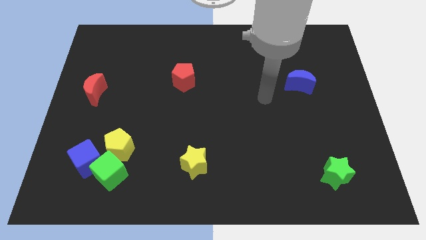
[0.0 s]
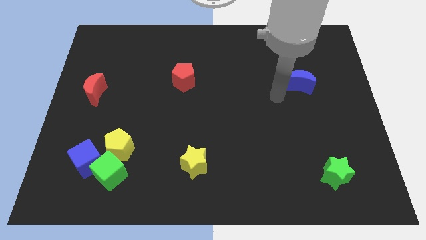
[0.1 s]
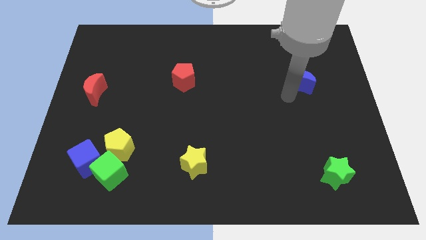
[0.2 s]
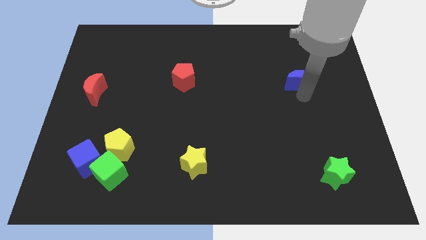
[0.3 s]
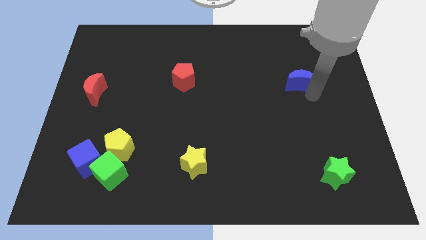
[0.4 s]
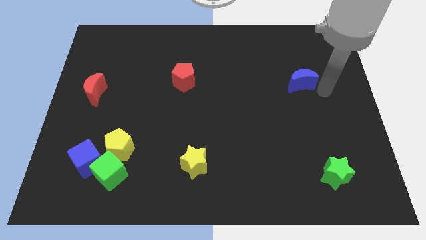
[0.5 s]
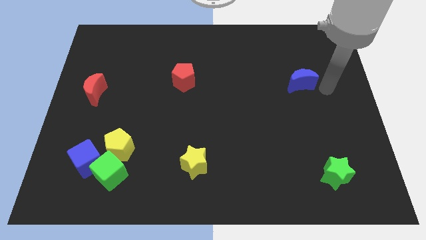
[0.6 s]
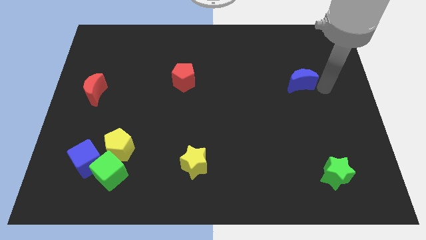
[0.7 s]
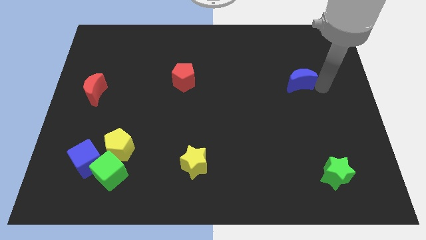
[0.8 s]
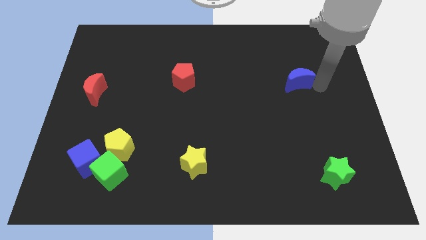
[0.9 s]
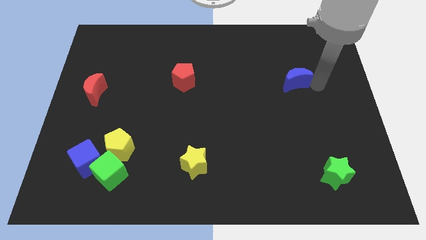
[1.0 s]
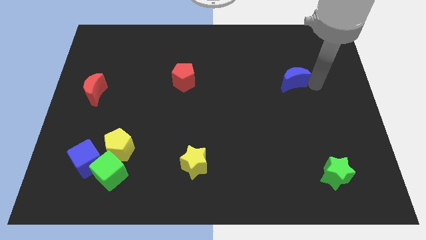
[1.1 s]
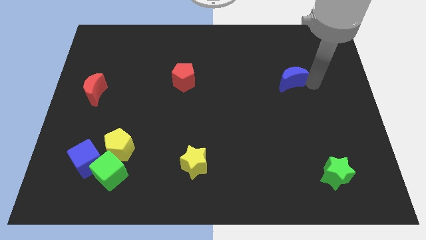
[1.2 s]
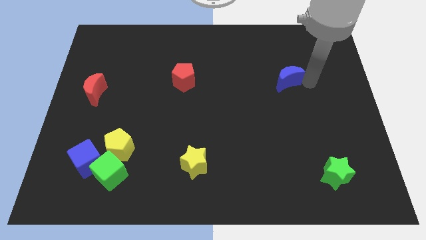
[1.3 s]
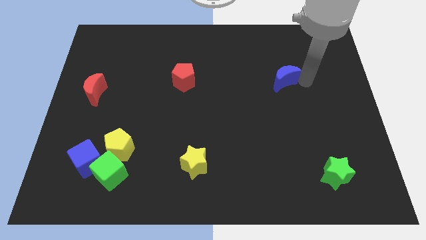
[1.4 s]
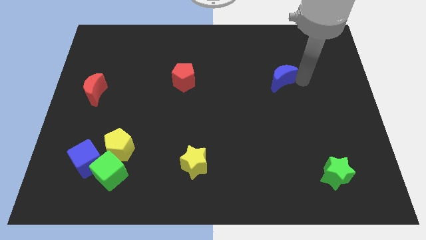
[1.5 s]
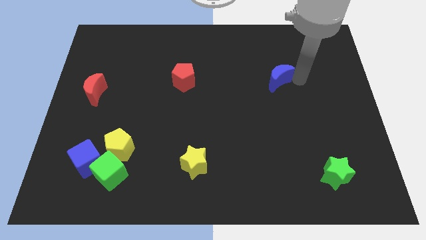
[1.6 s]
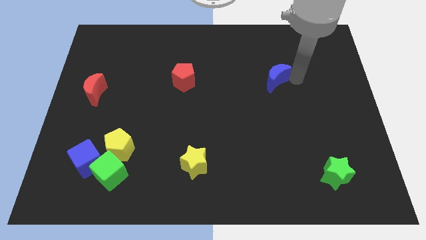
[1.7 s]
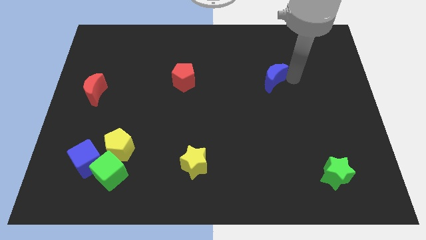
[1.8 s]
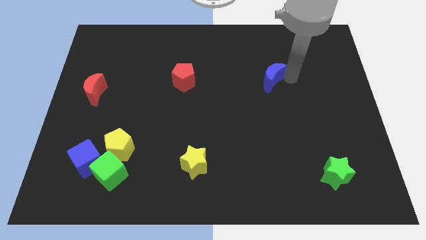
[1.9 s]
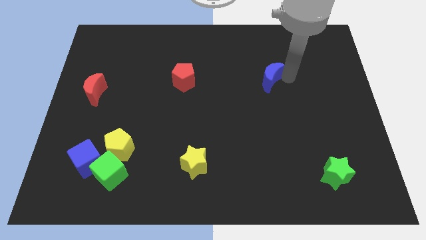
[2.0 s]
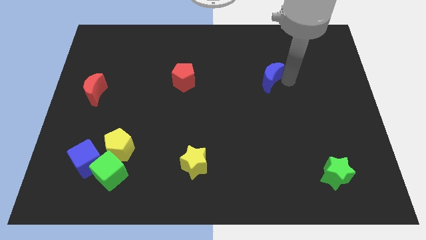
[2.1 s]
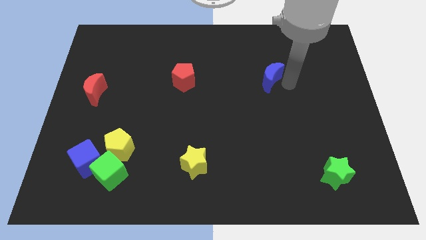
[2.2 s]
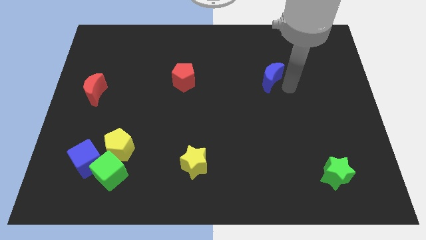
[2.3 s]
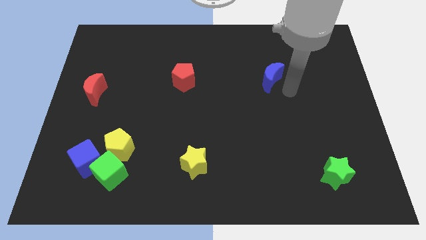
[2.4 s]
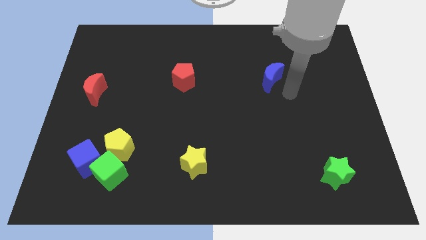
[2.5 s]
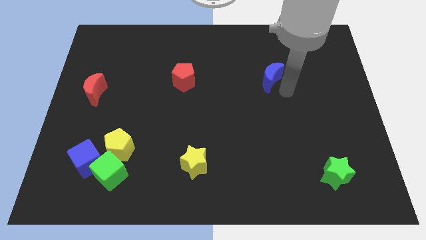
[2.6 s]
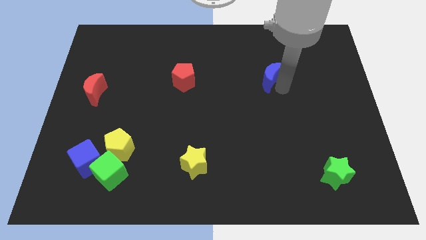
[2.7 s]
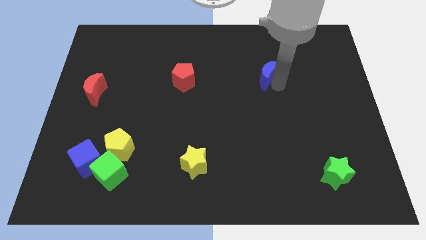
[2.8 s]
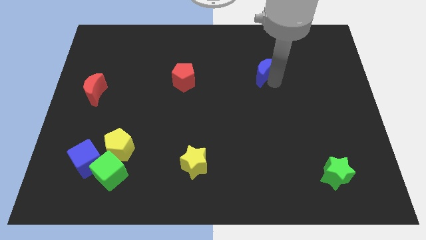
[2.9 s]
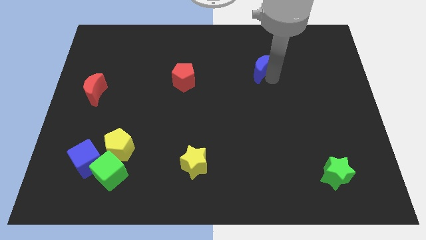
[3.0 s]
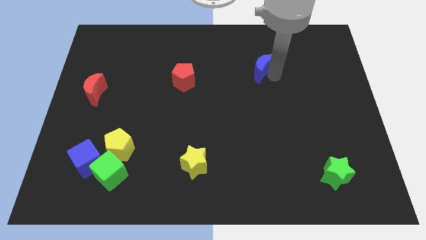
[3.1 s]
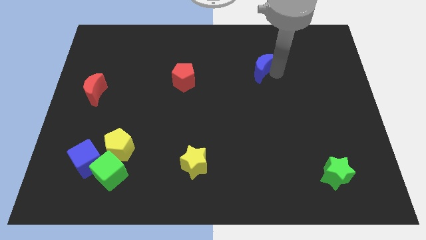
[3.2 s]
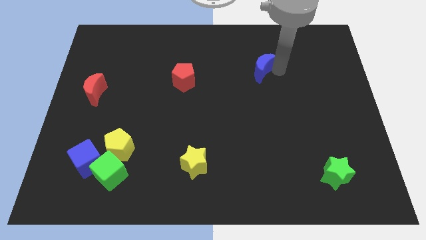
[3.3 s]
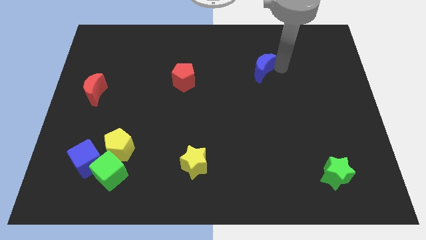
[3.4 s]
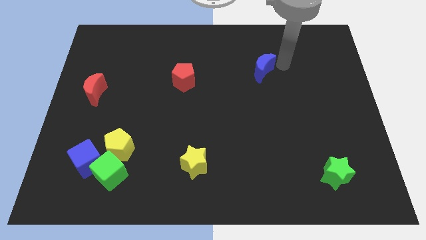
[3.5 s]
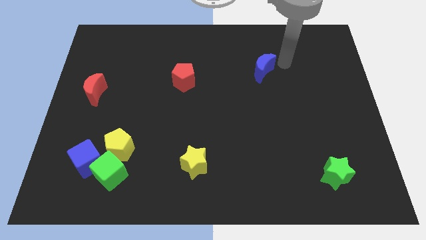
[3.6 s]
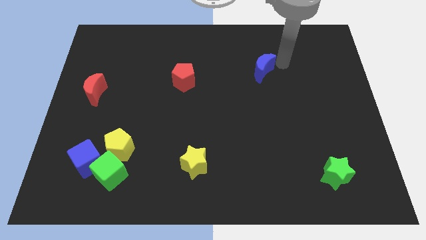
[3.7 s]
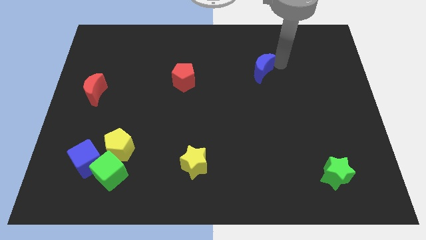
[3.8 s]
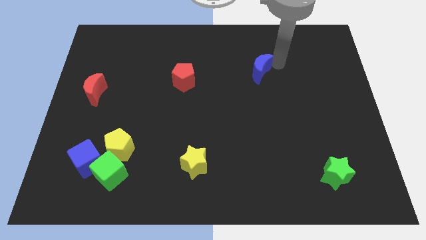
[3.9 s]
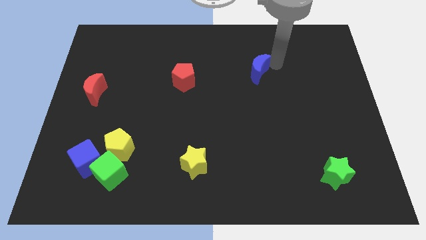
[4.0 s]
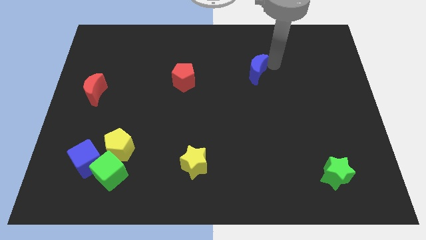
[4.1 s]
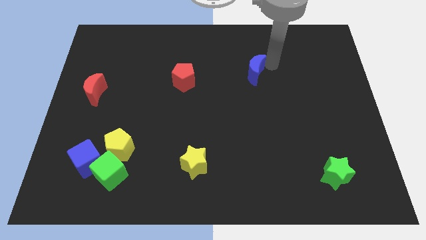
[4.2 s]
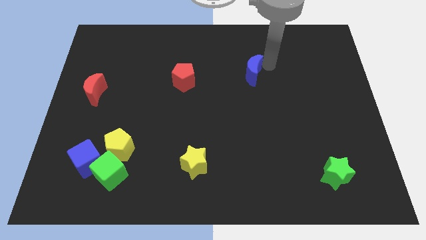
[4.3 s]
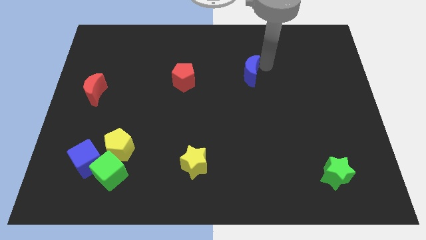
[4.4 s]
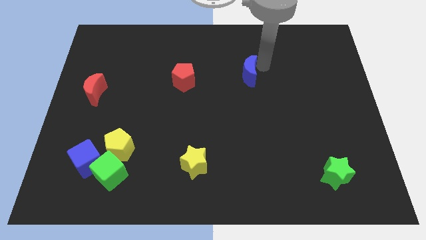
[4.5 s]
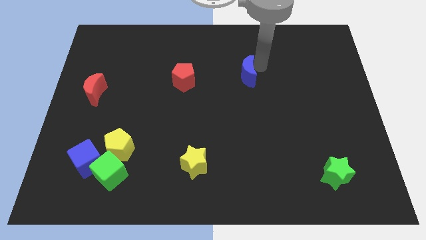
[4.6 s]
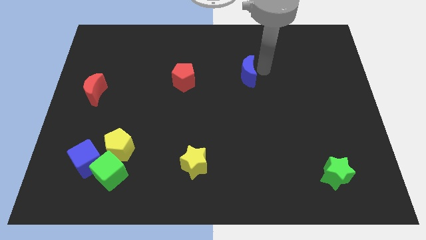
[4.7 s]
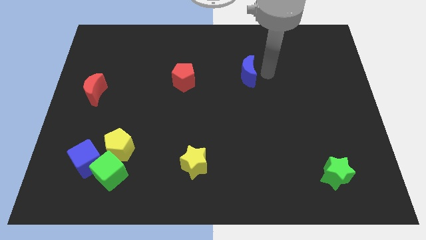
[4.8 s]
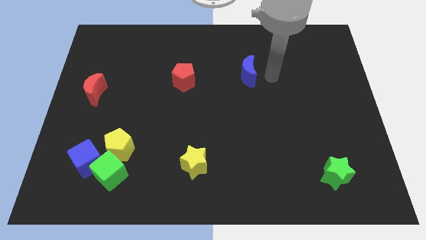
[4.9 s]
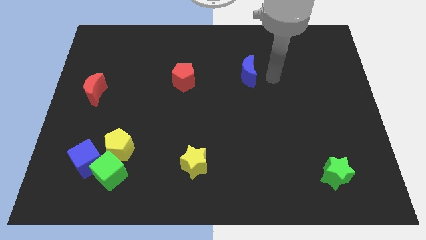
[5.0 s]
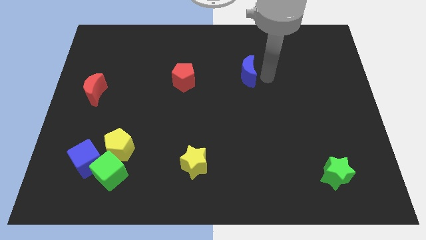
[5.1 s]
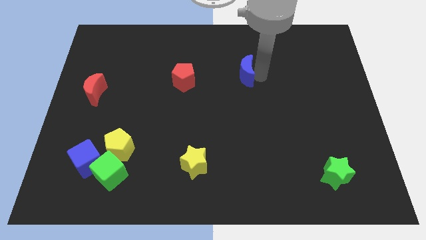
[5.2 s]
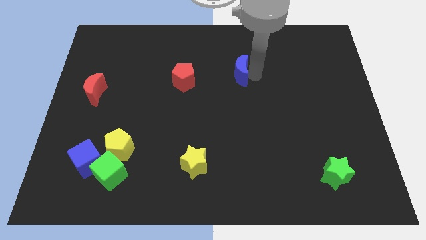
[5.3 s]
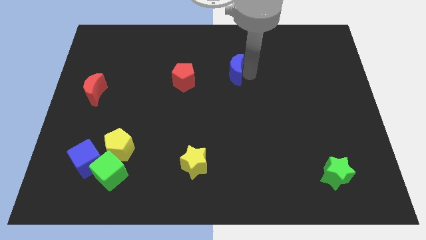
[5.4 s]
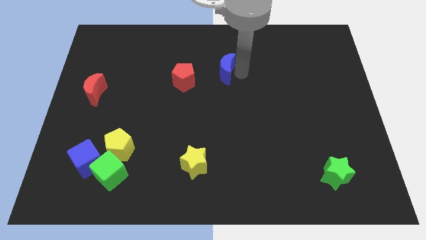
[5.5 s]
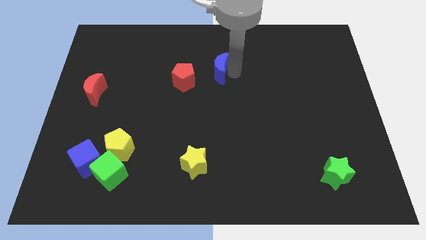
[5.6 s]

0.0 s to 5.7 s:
slide the blue moon to the top right of the red pentagon

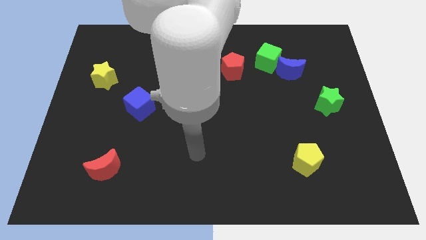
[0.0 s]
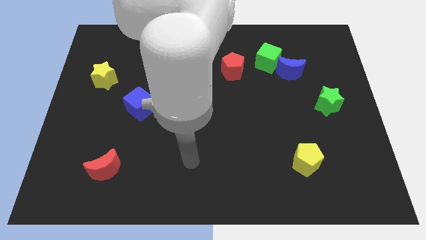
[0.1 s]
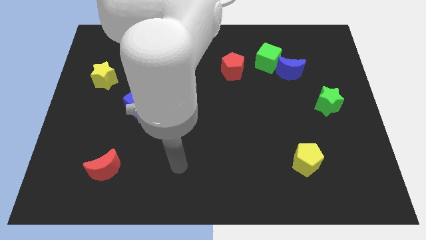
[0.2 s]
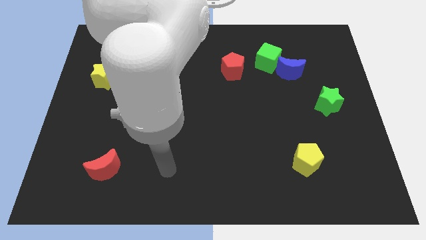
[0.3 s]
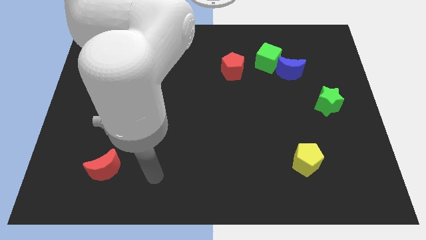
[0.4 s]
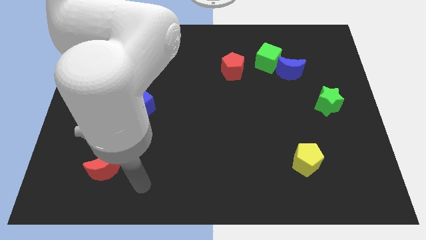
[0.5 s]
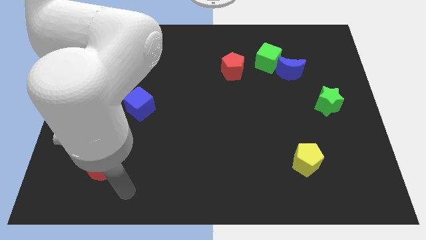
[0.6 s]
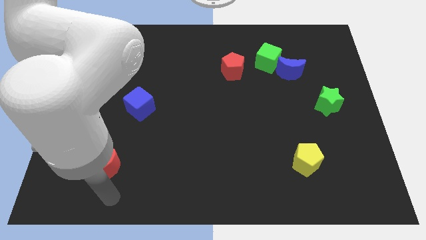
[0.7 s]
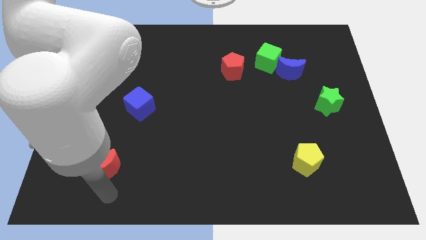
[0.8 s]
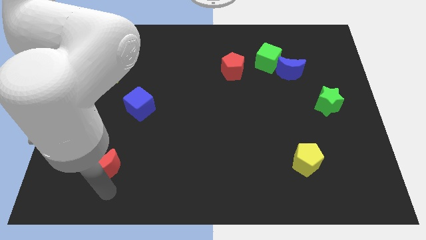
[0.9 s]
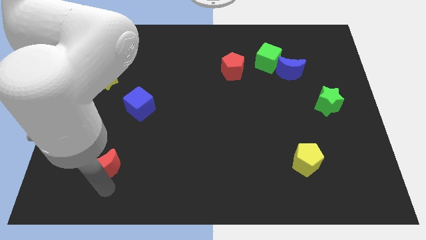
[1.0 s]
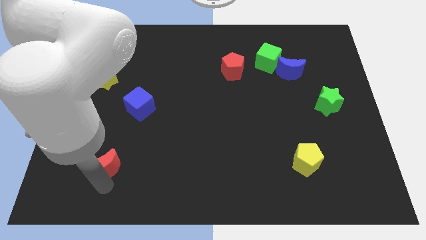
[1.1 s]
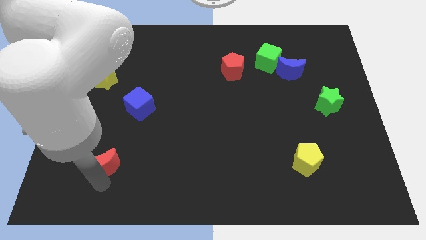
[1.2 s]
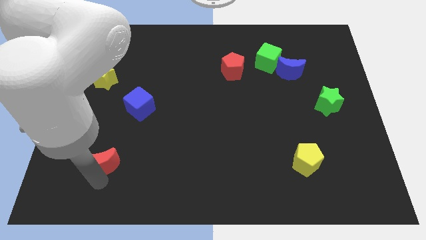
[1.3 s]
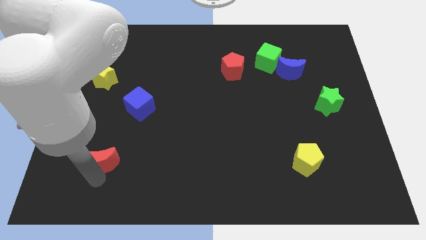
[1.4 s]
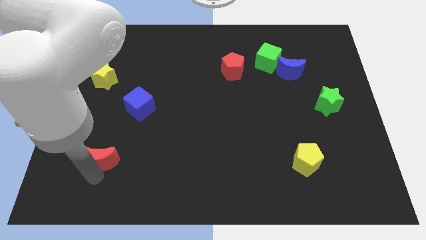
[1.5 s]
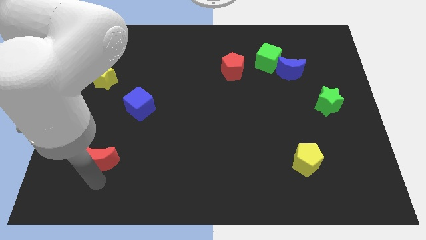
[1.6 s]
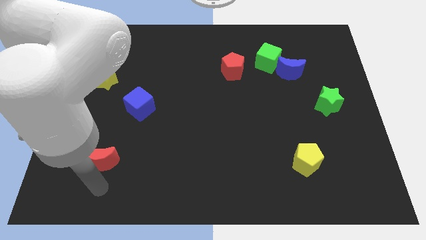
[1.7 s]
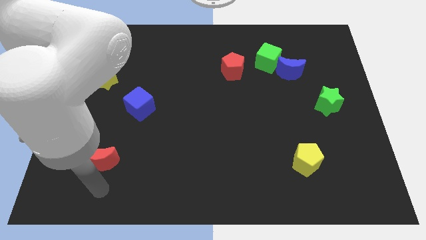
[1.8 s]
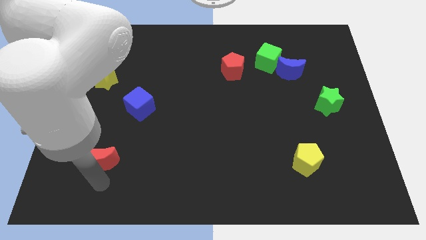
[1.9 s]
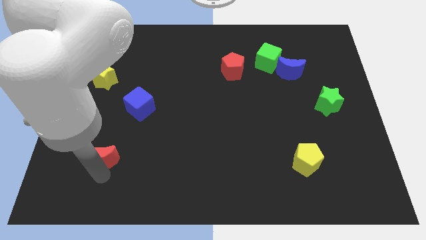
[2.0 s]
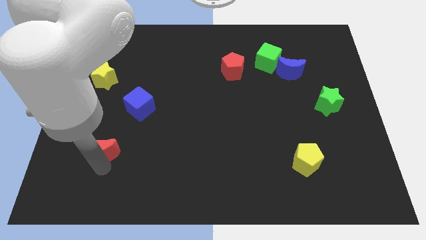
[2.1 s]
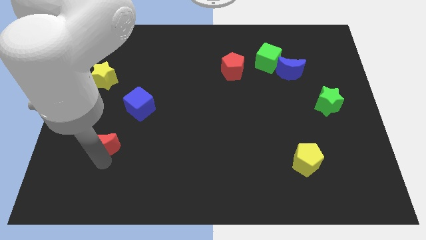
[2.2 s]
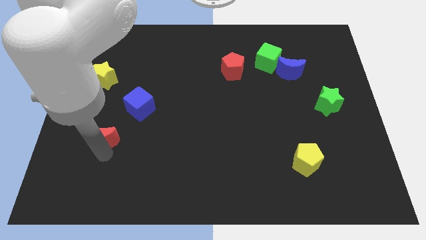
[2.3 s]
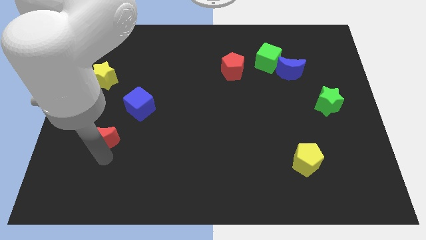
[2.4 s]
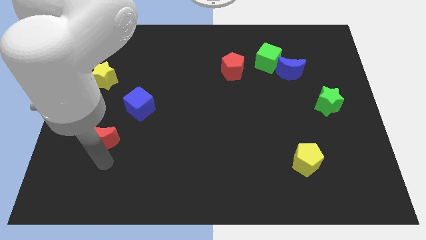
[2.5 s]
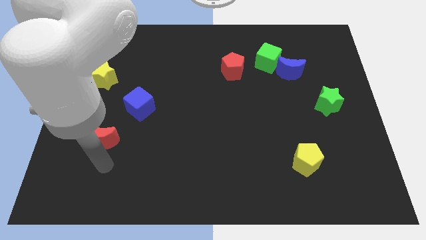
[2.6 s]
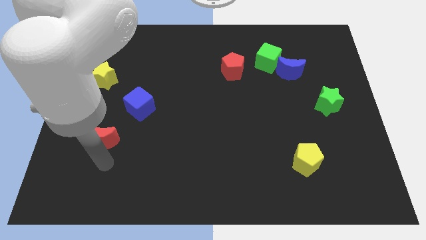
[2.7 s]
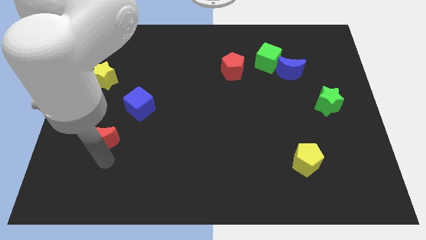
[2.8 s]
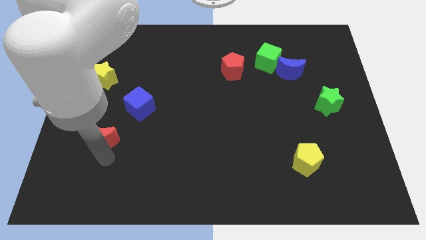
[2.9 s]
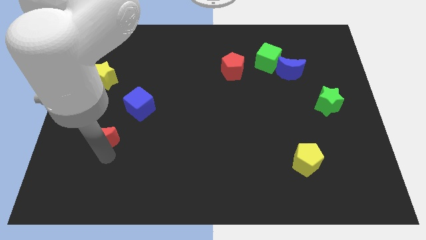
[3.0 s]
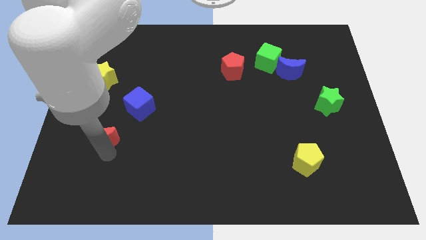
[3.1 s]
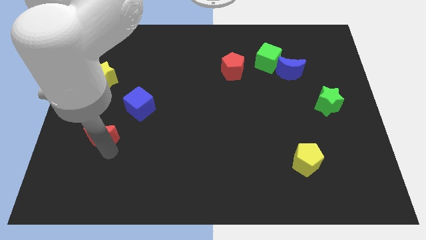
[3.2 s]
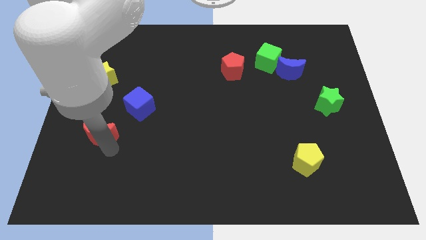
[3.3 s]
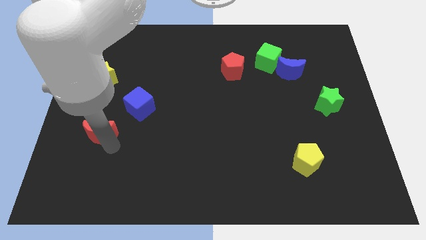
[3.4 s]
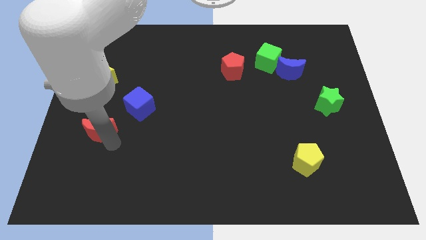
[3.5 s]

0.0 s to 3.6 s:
move the red moon below the yellow star
